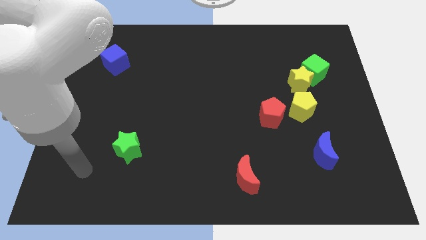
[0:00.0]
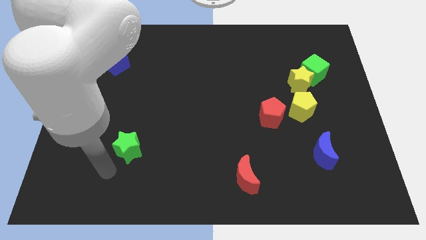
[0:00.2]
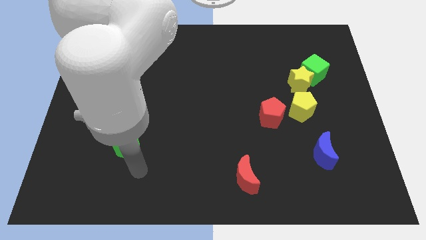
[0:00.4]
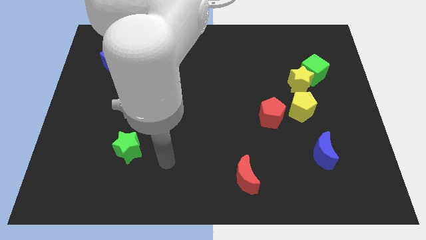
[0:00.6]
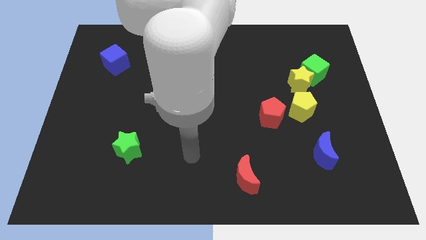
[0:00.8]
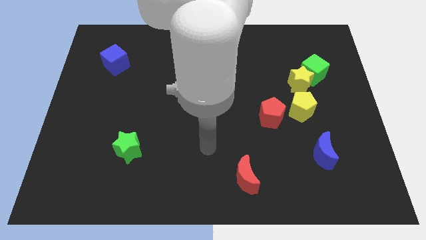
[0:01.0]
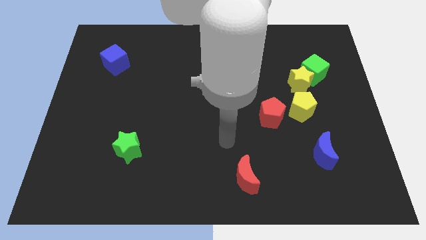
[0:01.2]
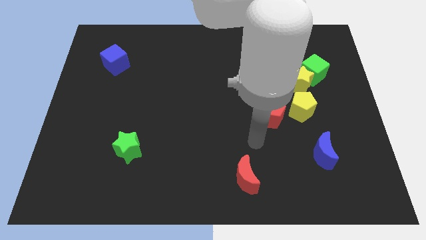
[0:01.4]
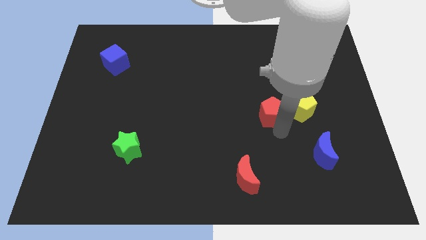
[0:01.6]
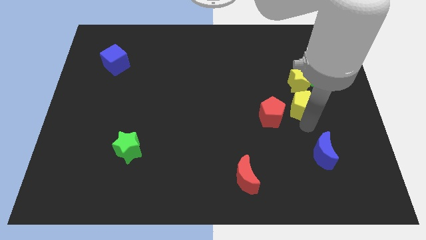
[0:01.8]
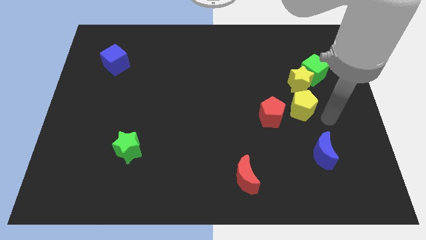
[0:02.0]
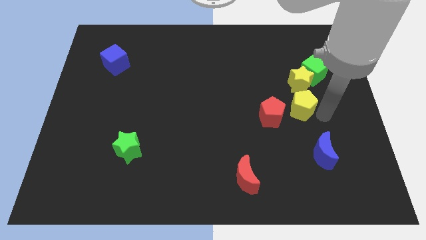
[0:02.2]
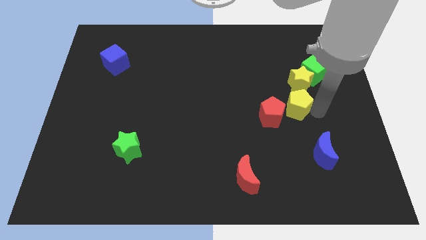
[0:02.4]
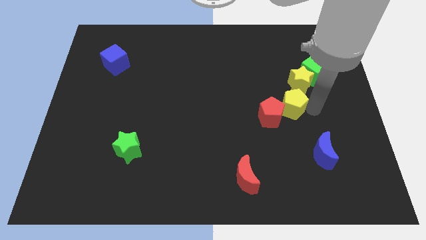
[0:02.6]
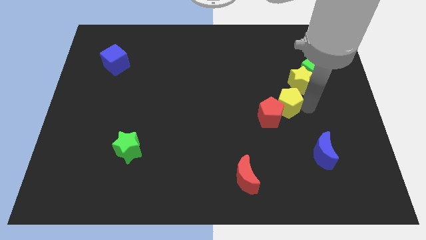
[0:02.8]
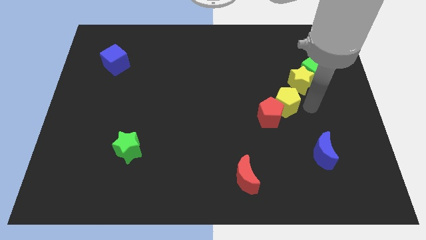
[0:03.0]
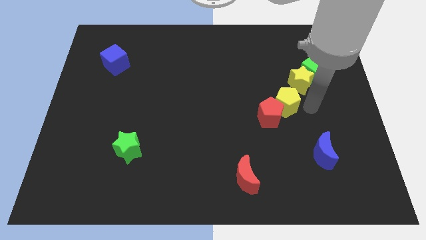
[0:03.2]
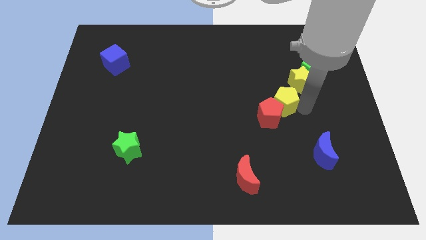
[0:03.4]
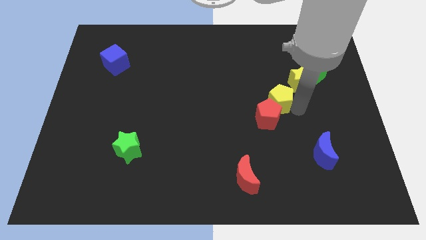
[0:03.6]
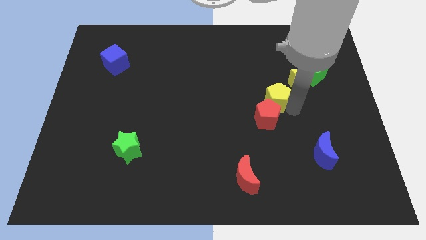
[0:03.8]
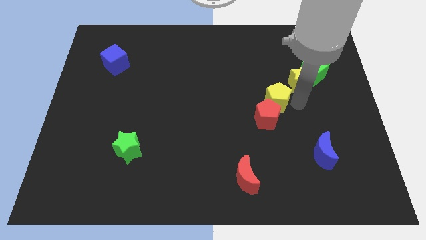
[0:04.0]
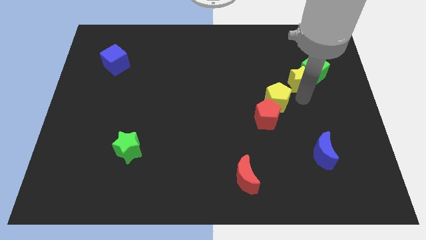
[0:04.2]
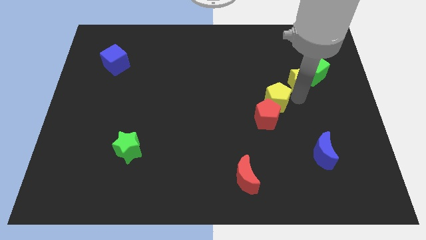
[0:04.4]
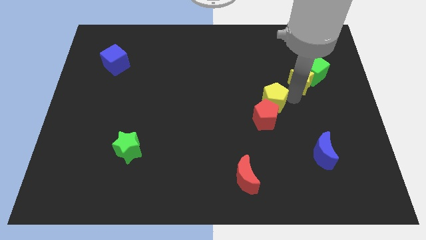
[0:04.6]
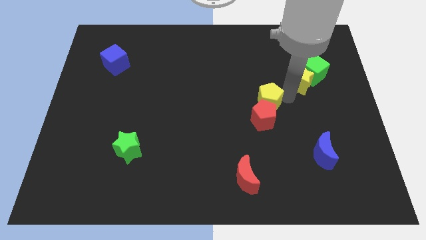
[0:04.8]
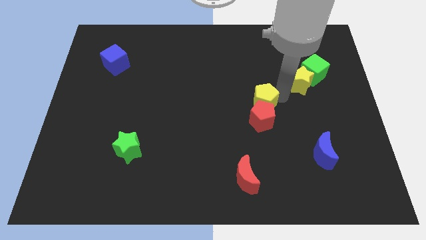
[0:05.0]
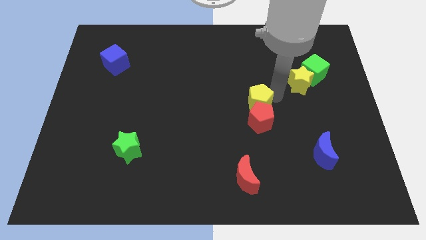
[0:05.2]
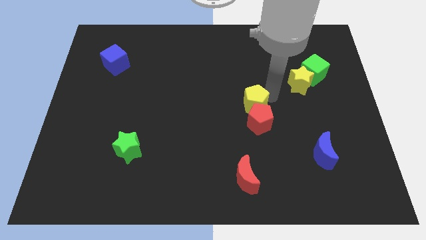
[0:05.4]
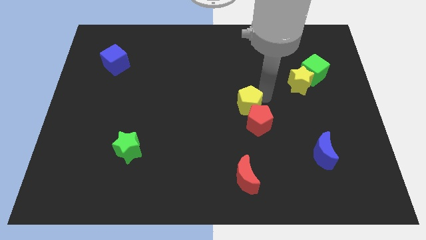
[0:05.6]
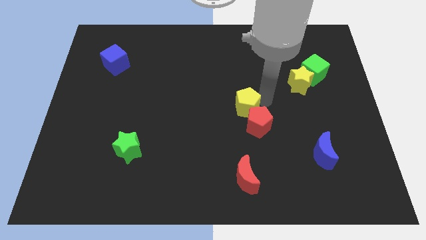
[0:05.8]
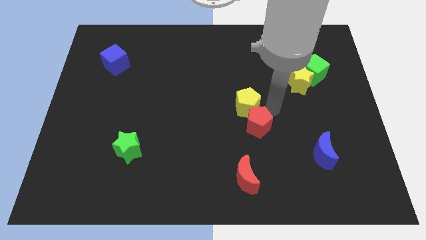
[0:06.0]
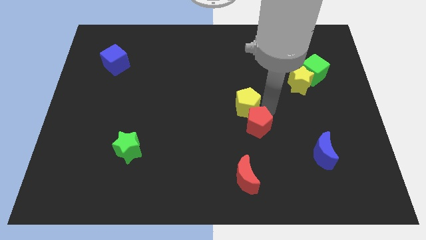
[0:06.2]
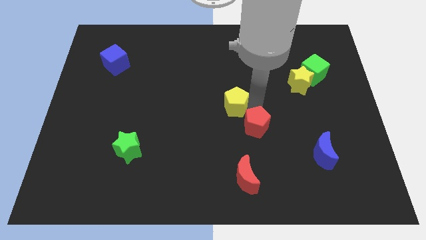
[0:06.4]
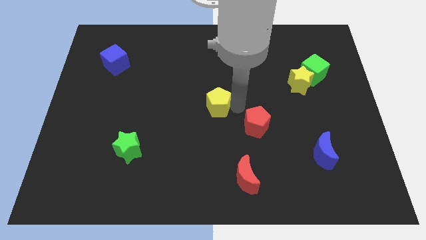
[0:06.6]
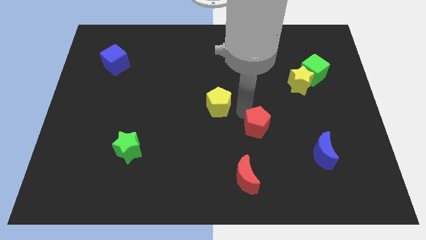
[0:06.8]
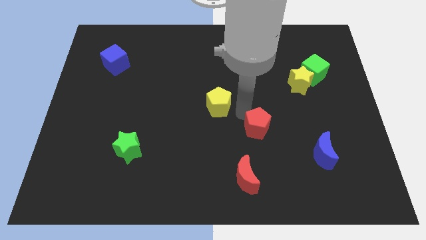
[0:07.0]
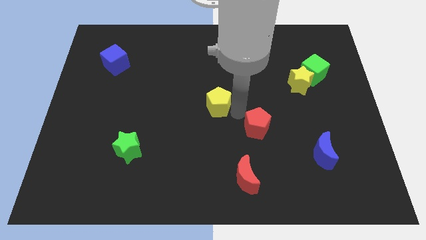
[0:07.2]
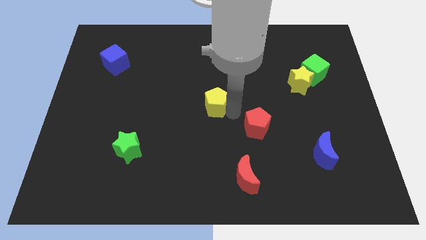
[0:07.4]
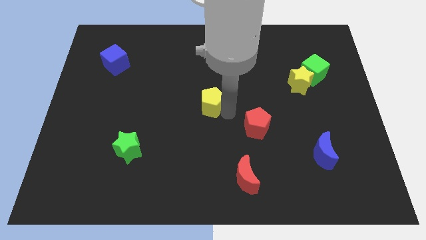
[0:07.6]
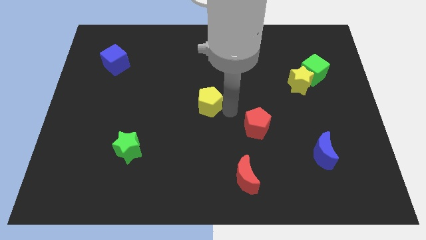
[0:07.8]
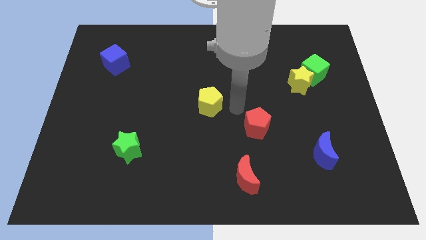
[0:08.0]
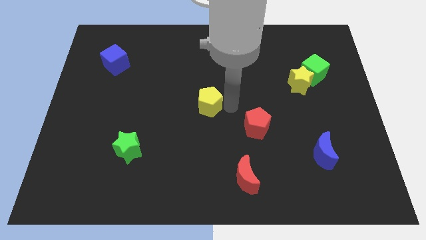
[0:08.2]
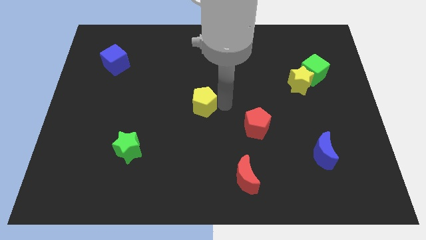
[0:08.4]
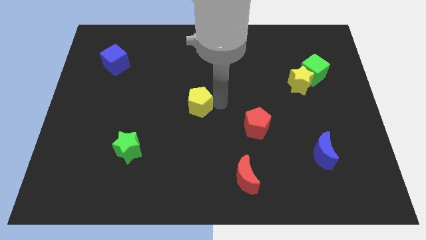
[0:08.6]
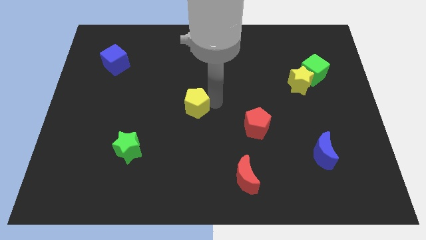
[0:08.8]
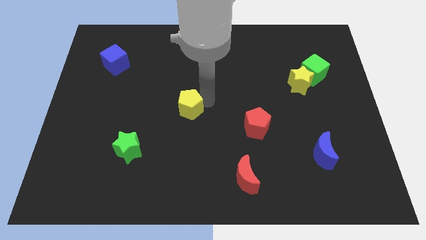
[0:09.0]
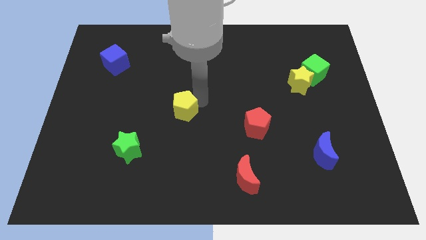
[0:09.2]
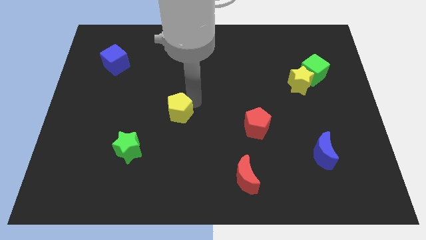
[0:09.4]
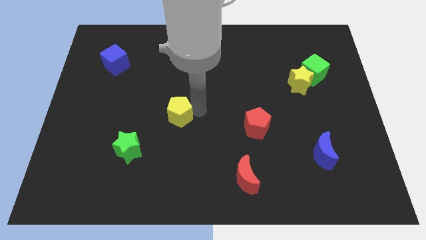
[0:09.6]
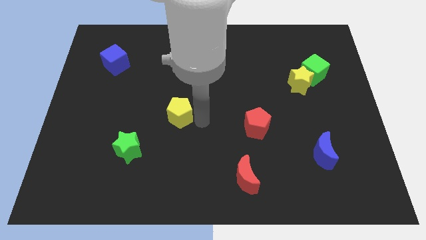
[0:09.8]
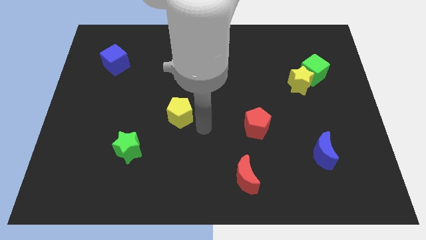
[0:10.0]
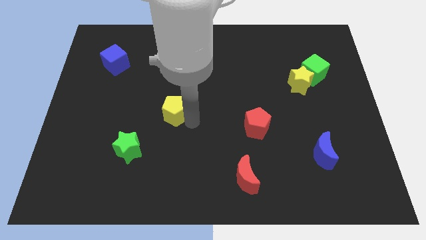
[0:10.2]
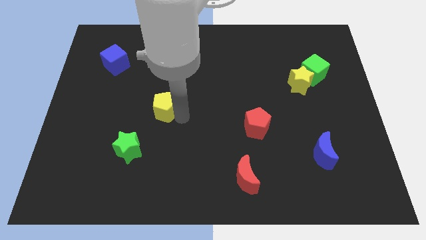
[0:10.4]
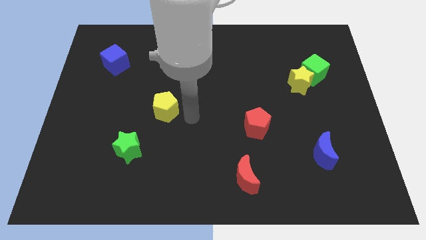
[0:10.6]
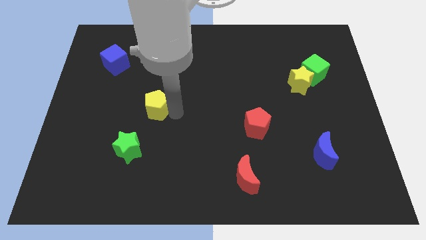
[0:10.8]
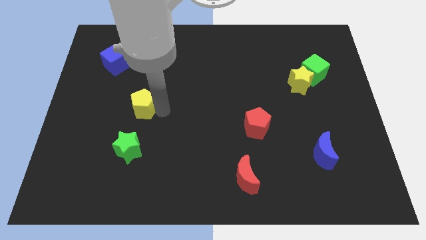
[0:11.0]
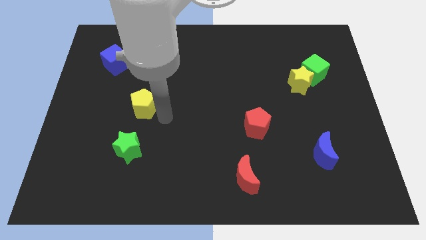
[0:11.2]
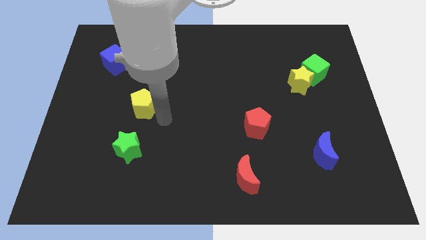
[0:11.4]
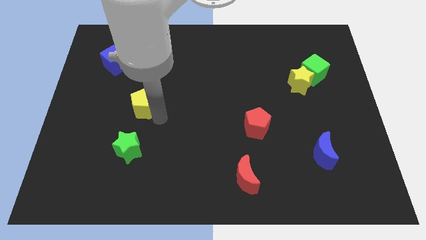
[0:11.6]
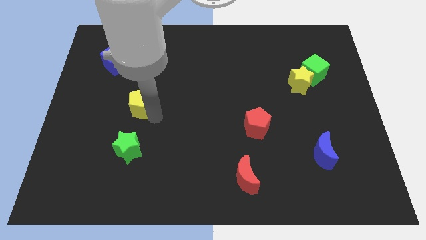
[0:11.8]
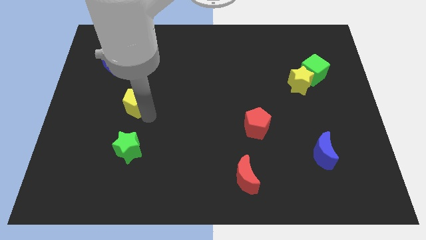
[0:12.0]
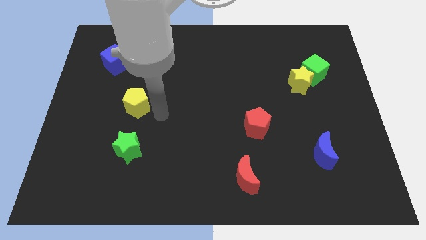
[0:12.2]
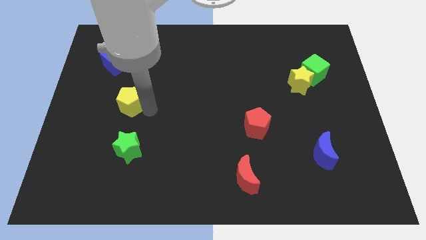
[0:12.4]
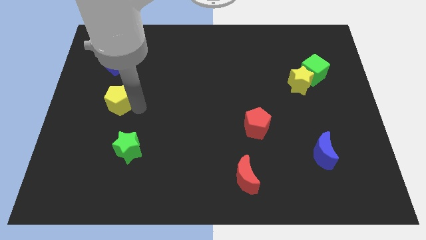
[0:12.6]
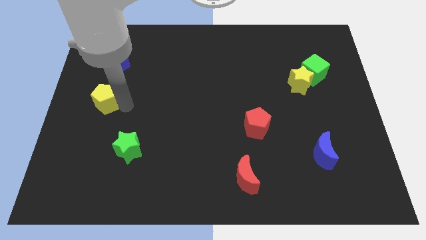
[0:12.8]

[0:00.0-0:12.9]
slide the yellow pentagon to the left side of the board
